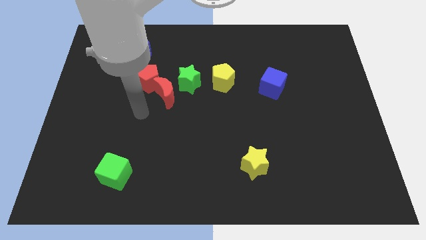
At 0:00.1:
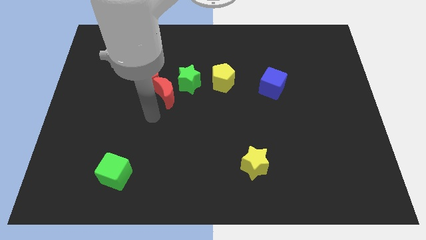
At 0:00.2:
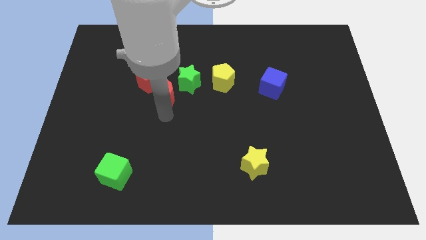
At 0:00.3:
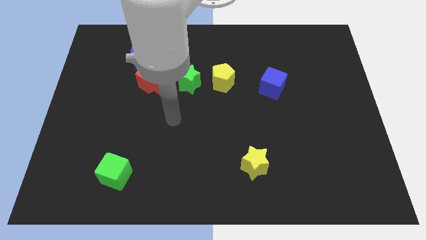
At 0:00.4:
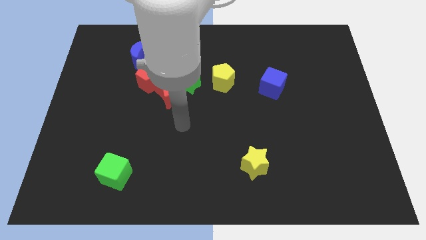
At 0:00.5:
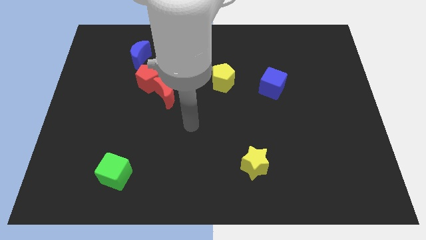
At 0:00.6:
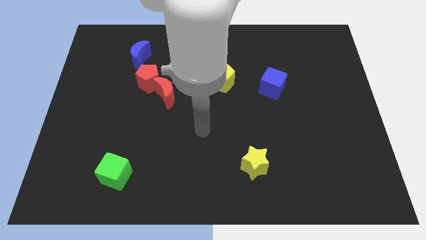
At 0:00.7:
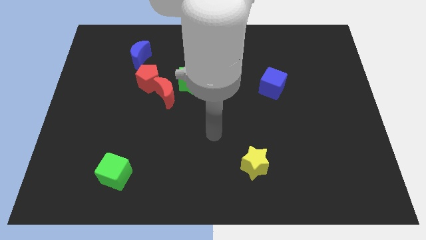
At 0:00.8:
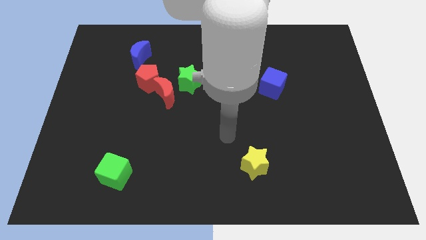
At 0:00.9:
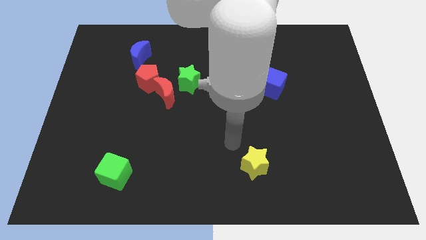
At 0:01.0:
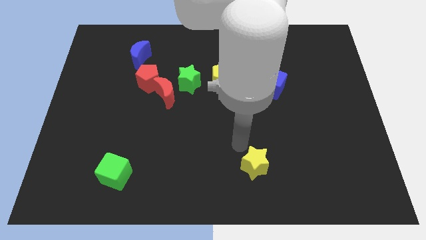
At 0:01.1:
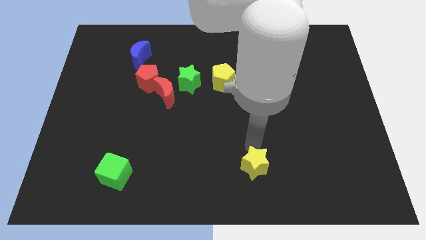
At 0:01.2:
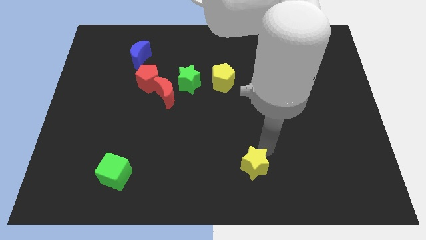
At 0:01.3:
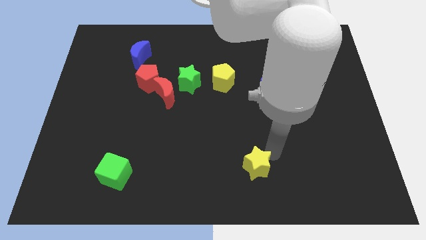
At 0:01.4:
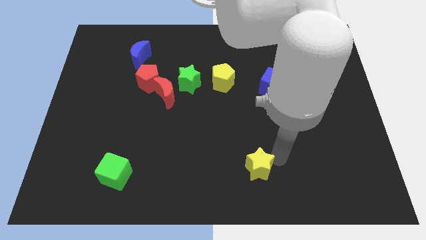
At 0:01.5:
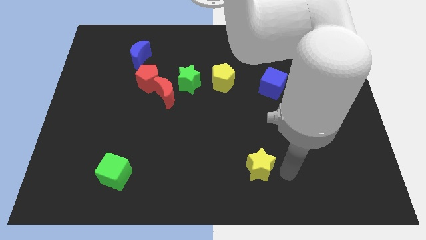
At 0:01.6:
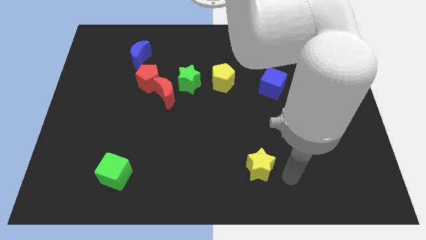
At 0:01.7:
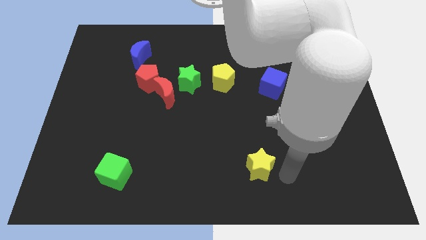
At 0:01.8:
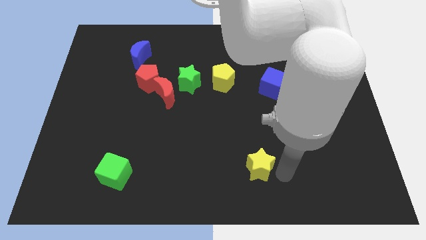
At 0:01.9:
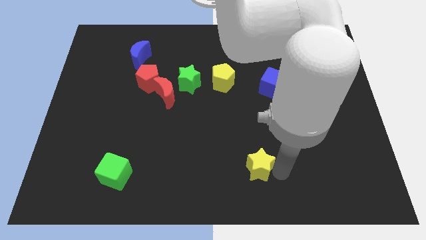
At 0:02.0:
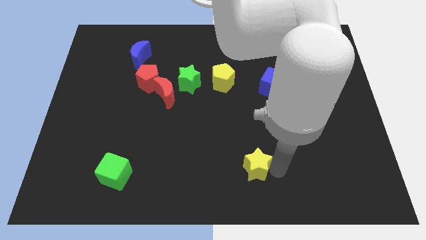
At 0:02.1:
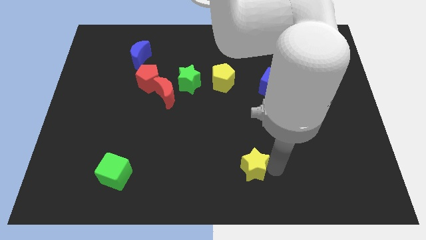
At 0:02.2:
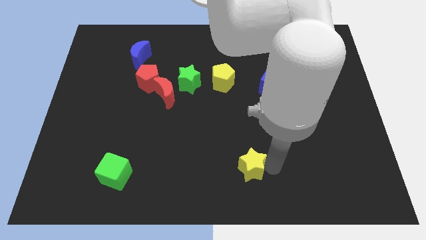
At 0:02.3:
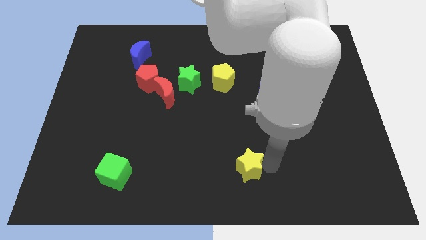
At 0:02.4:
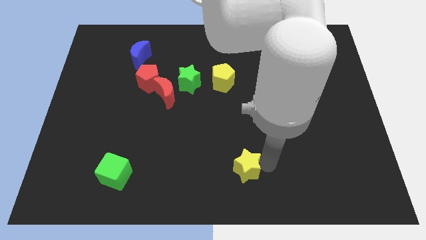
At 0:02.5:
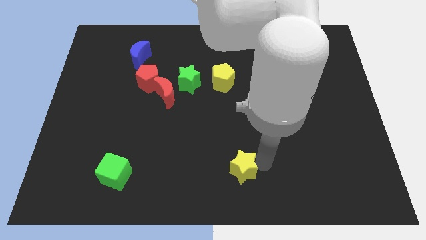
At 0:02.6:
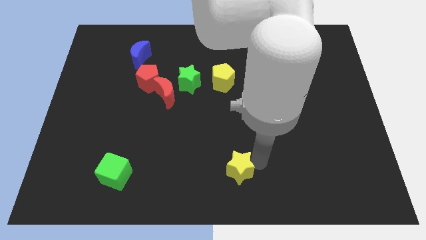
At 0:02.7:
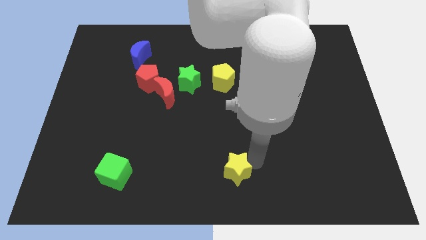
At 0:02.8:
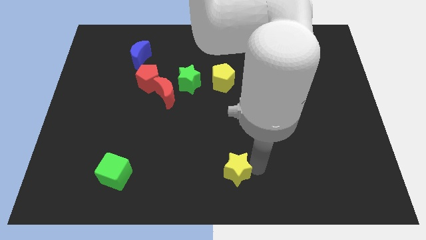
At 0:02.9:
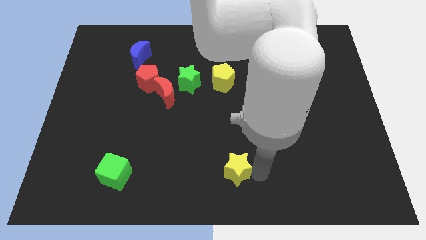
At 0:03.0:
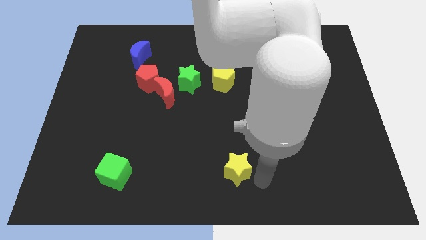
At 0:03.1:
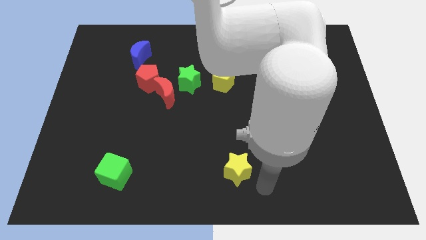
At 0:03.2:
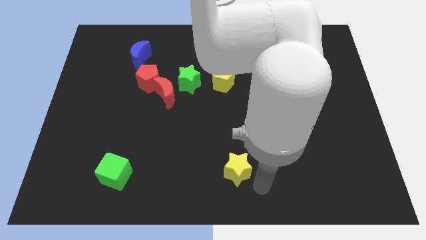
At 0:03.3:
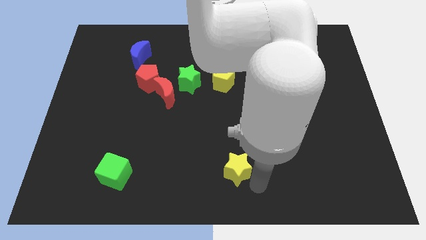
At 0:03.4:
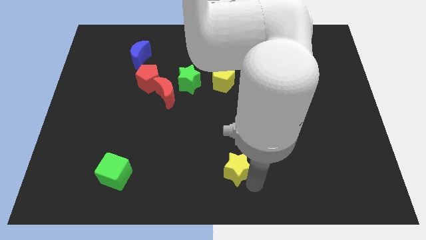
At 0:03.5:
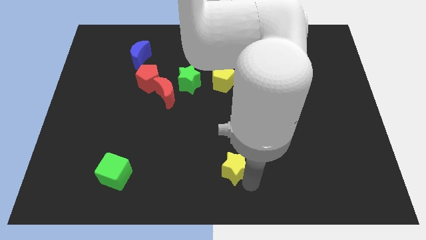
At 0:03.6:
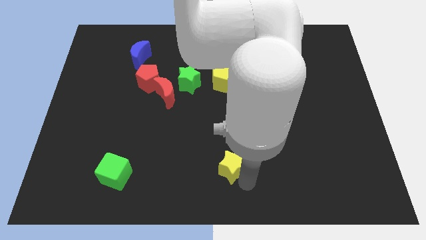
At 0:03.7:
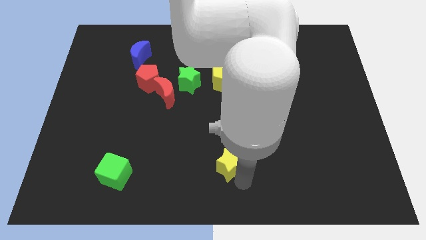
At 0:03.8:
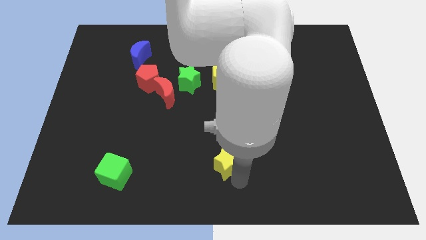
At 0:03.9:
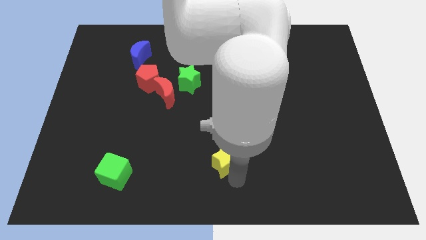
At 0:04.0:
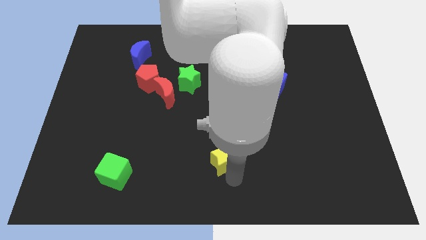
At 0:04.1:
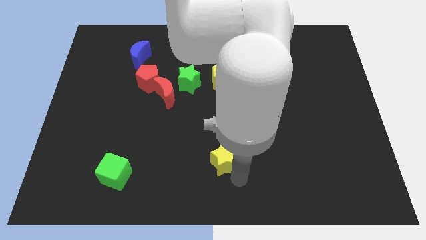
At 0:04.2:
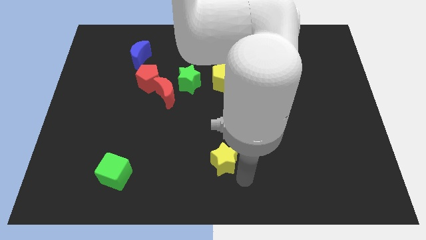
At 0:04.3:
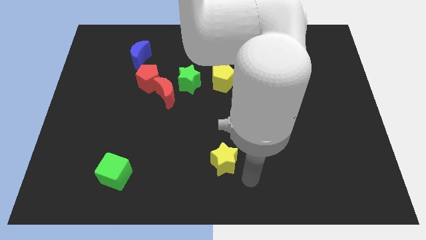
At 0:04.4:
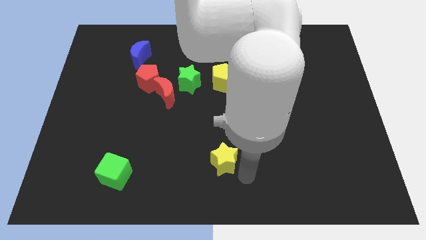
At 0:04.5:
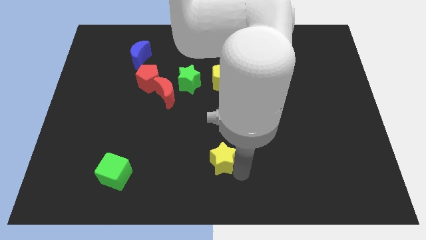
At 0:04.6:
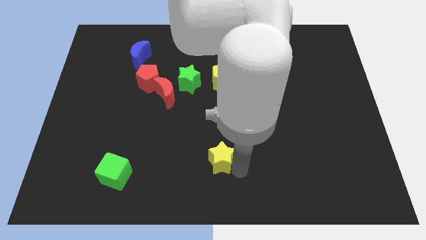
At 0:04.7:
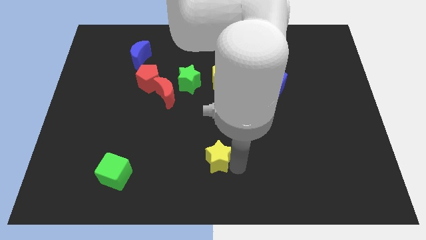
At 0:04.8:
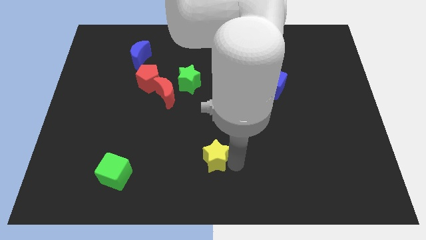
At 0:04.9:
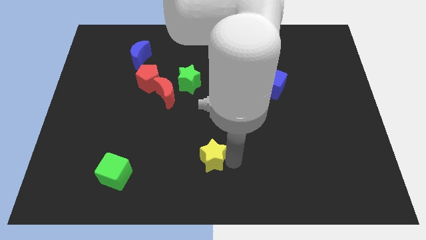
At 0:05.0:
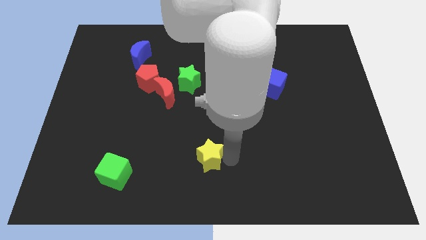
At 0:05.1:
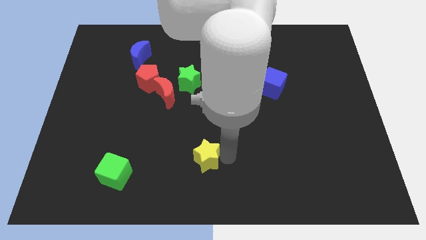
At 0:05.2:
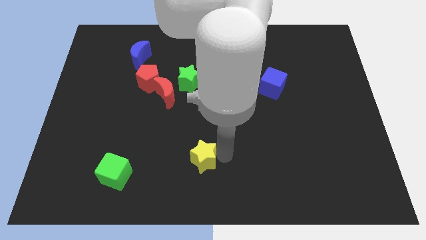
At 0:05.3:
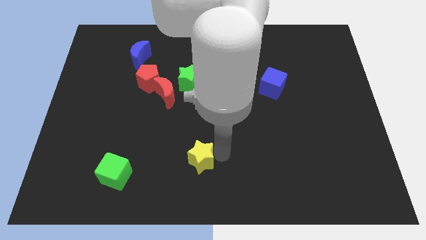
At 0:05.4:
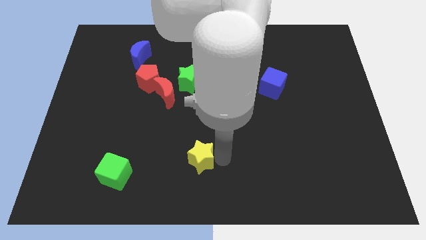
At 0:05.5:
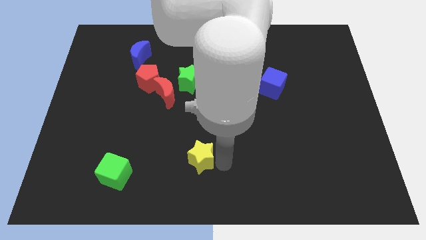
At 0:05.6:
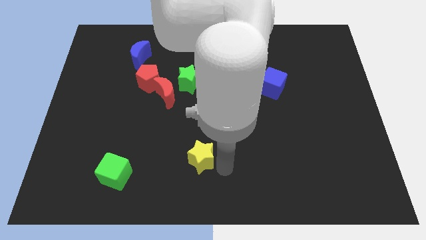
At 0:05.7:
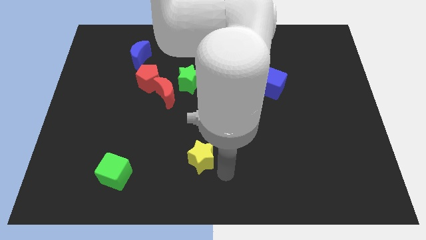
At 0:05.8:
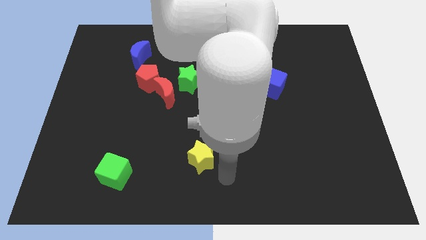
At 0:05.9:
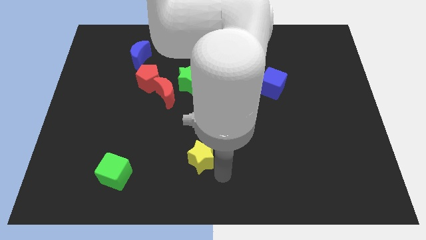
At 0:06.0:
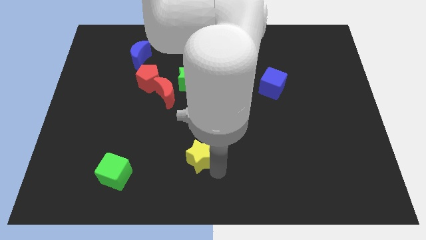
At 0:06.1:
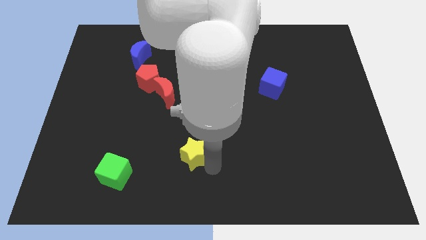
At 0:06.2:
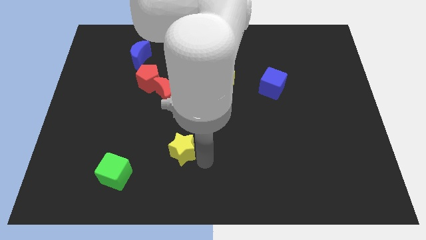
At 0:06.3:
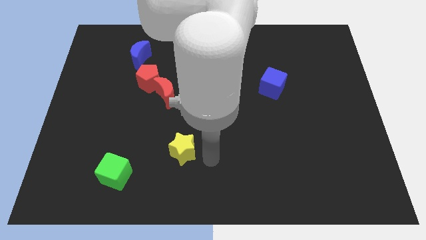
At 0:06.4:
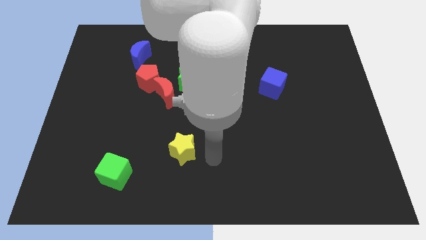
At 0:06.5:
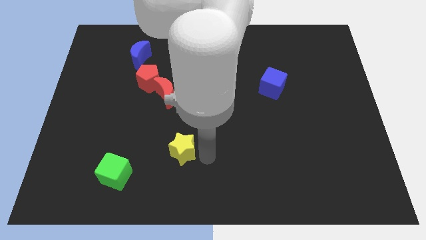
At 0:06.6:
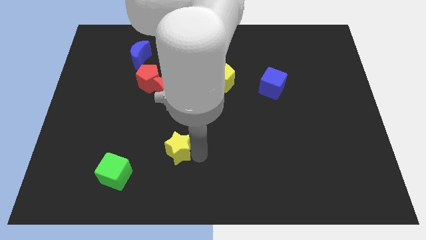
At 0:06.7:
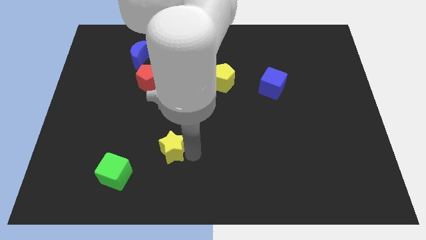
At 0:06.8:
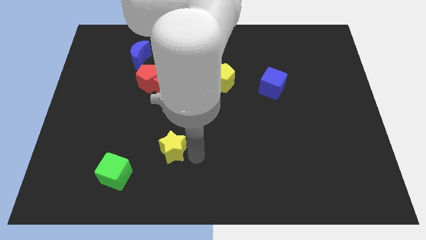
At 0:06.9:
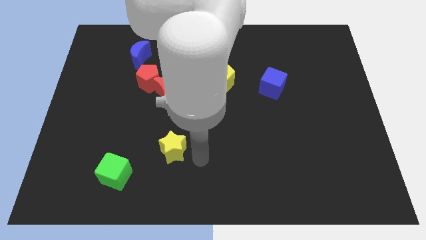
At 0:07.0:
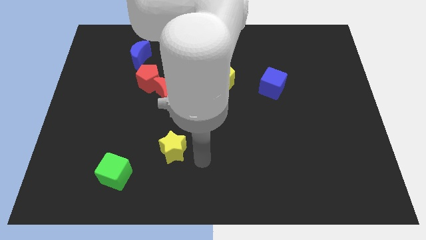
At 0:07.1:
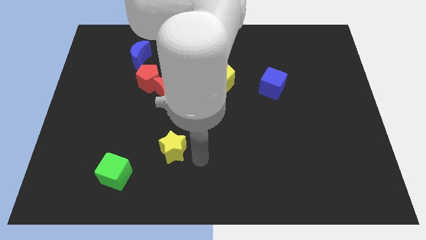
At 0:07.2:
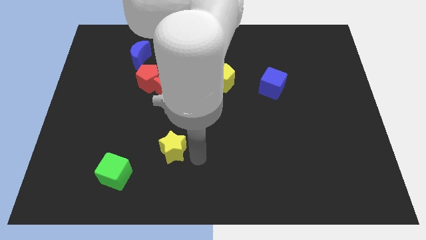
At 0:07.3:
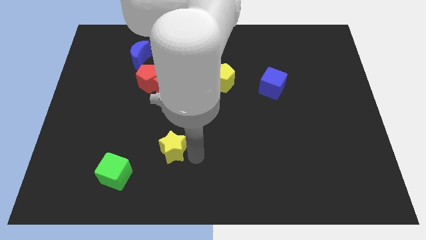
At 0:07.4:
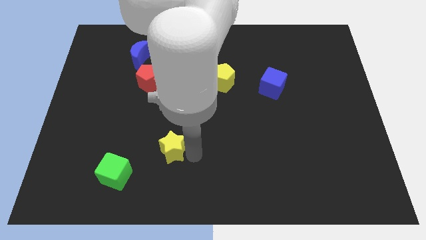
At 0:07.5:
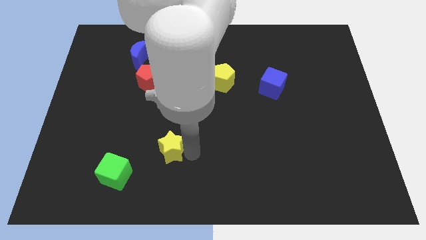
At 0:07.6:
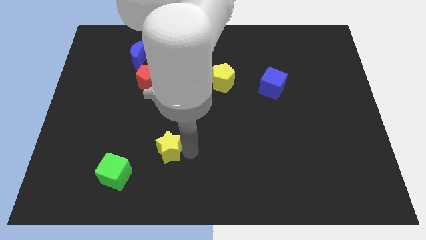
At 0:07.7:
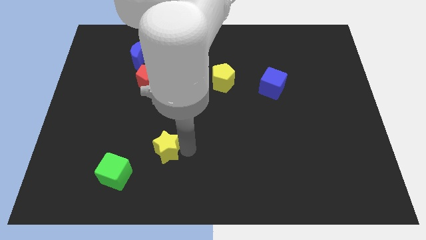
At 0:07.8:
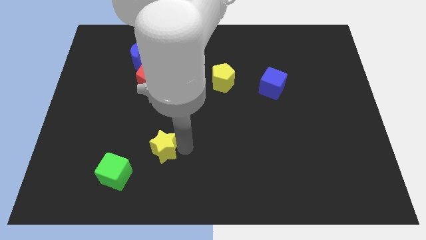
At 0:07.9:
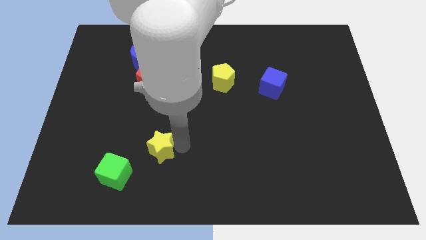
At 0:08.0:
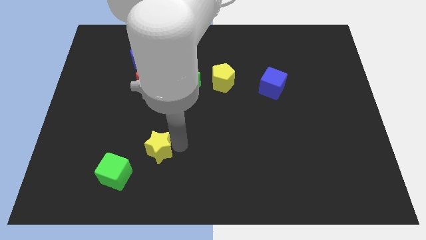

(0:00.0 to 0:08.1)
slide the yellow star left

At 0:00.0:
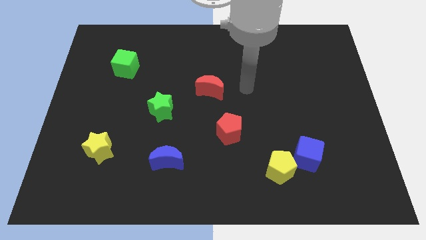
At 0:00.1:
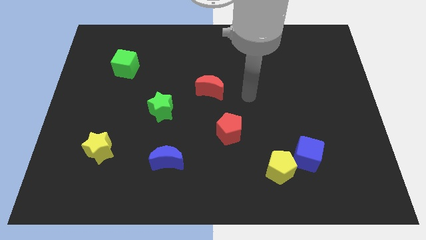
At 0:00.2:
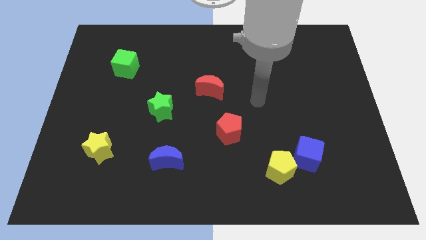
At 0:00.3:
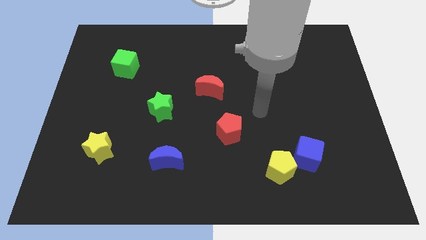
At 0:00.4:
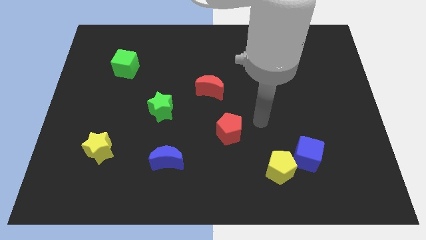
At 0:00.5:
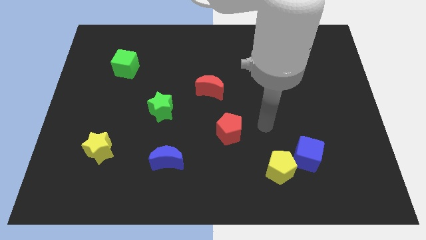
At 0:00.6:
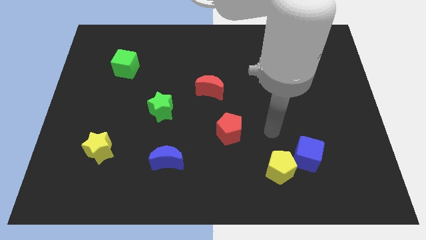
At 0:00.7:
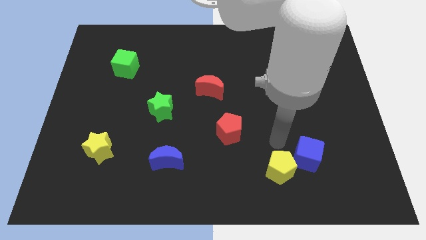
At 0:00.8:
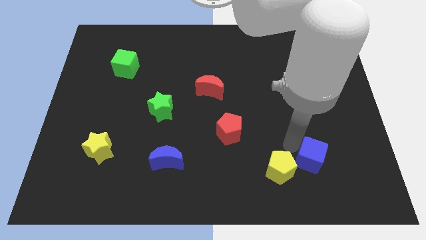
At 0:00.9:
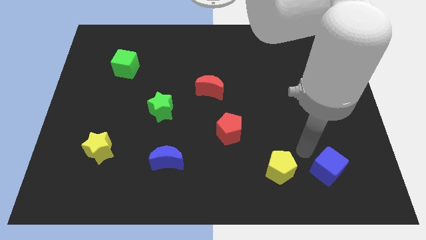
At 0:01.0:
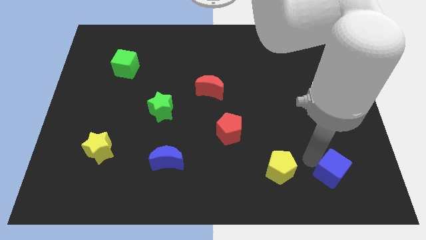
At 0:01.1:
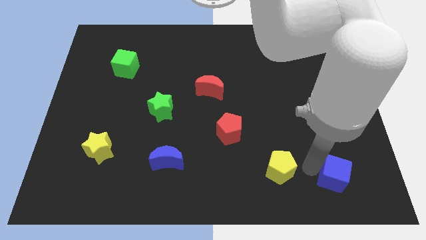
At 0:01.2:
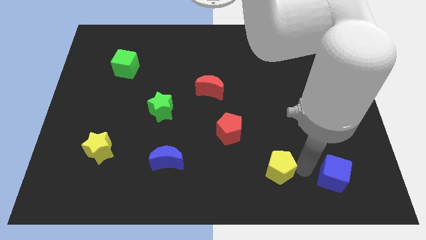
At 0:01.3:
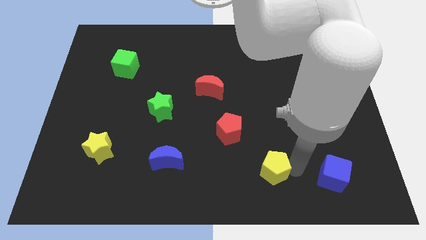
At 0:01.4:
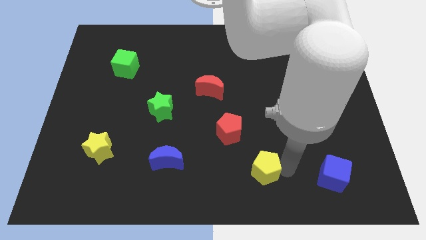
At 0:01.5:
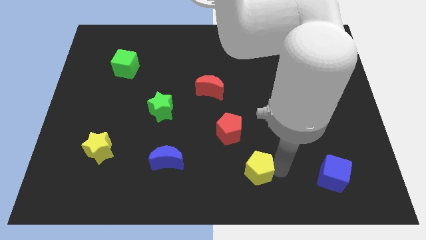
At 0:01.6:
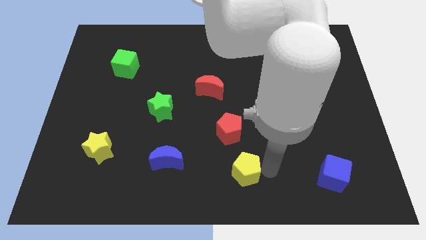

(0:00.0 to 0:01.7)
slide the yellow pentagon to the left a little bit
